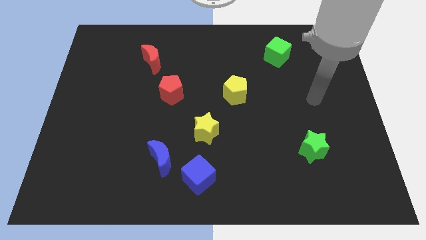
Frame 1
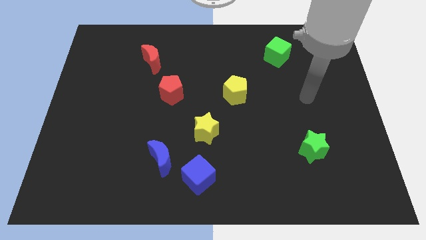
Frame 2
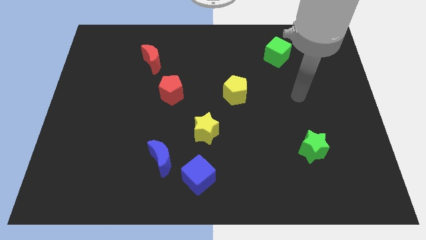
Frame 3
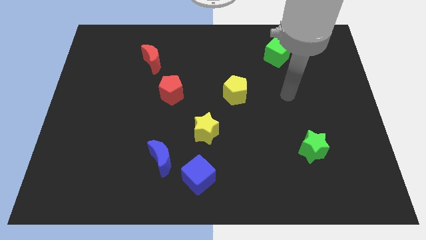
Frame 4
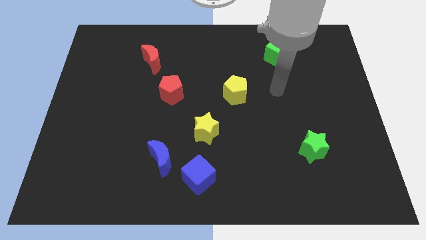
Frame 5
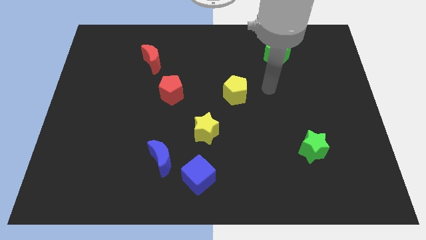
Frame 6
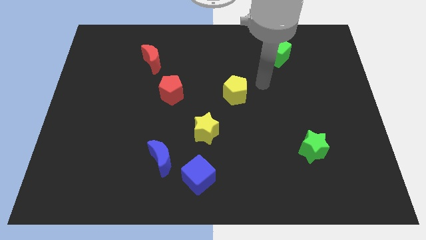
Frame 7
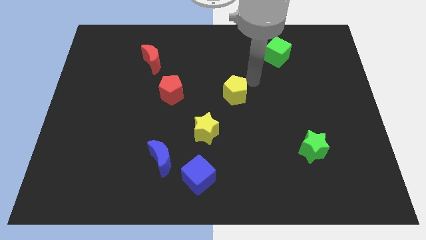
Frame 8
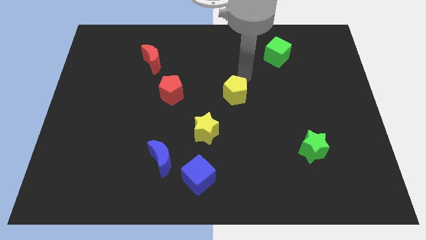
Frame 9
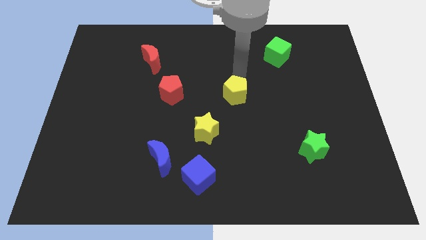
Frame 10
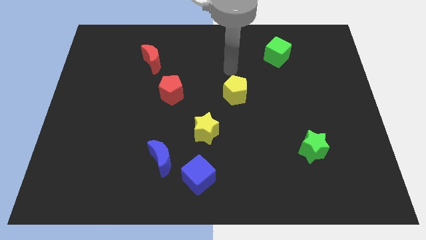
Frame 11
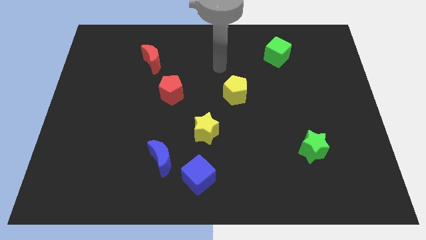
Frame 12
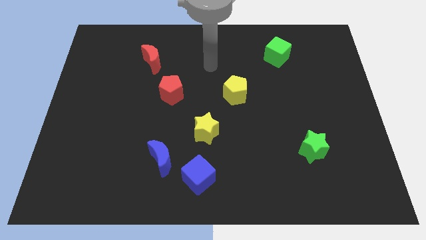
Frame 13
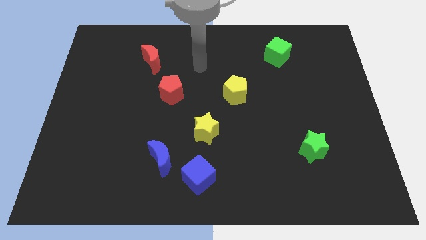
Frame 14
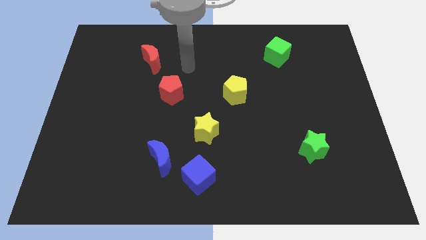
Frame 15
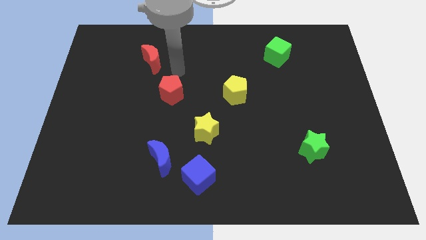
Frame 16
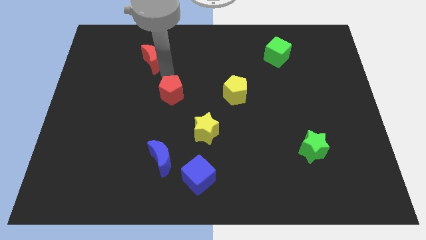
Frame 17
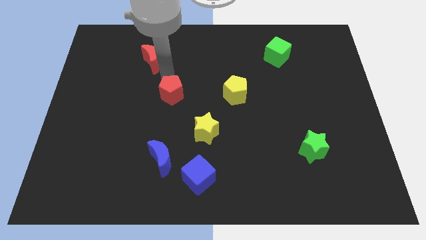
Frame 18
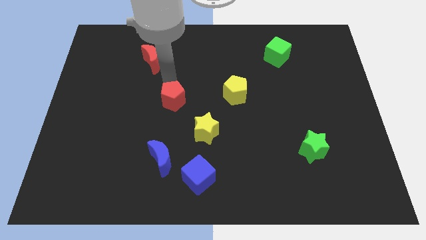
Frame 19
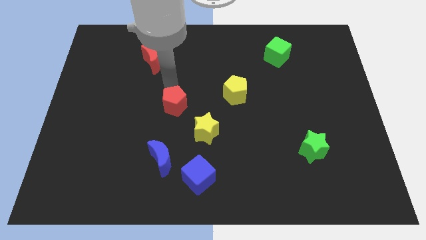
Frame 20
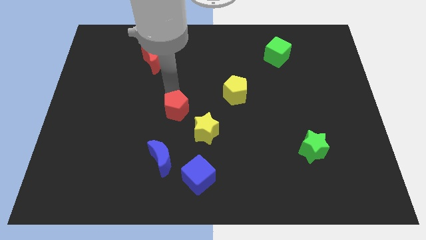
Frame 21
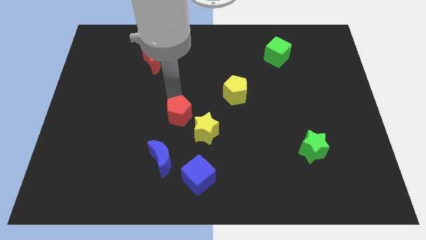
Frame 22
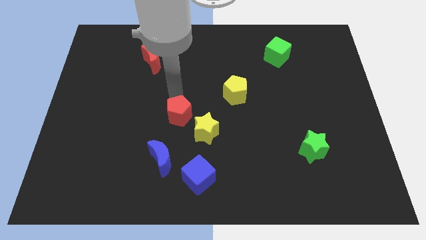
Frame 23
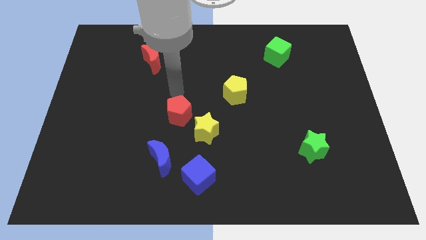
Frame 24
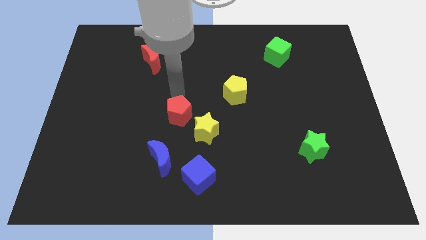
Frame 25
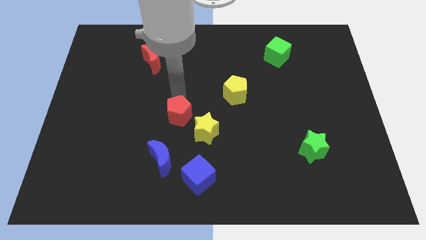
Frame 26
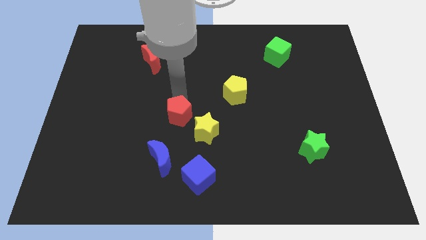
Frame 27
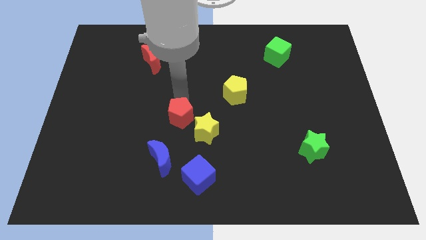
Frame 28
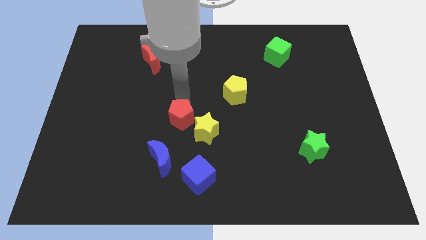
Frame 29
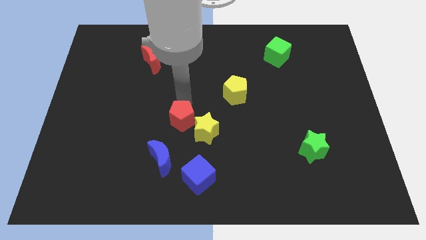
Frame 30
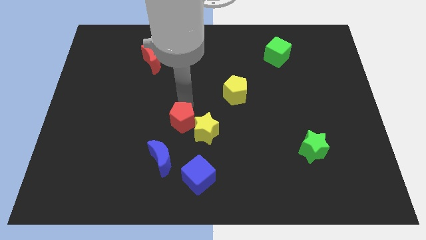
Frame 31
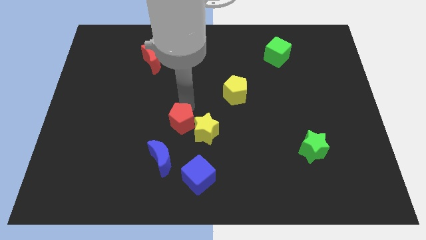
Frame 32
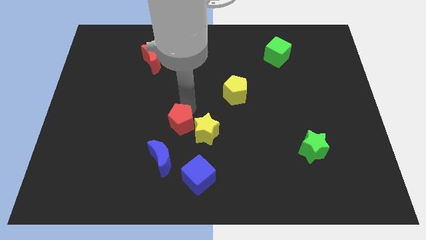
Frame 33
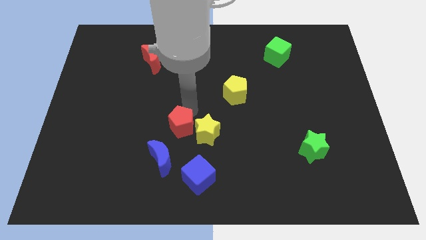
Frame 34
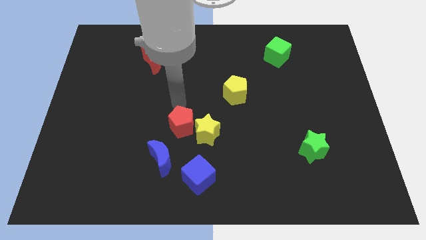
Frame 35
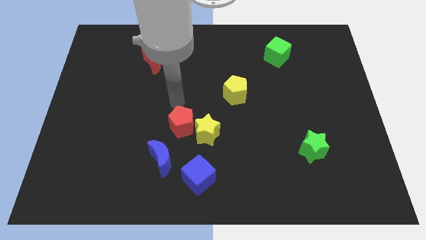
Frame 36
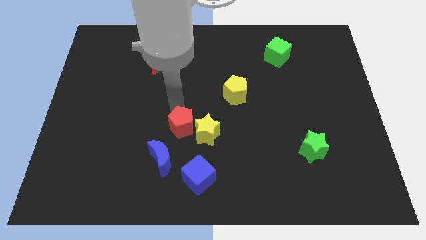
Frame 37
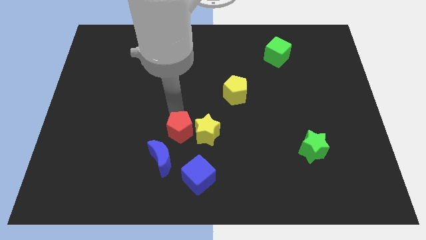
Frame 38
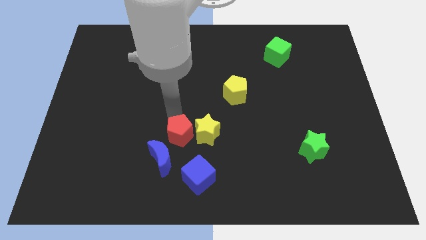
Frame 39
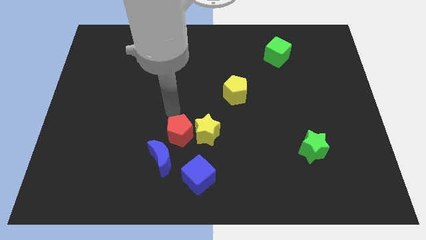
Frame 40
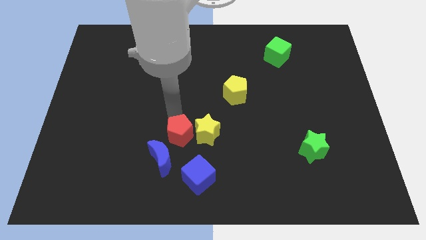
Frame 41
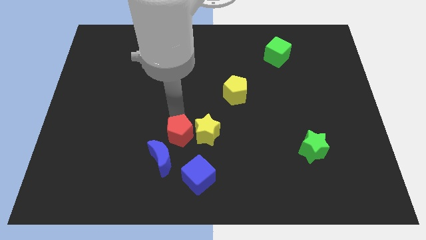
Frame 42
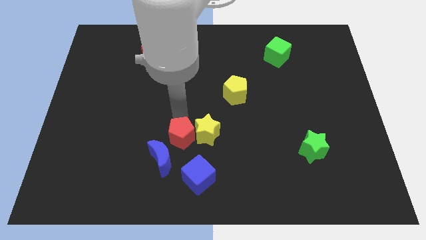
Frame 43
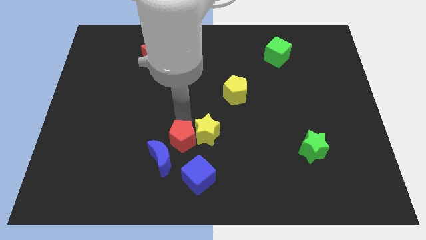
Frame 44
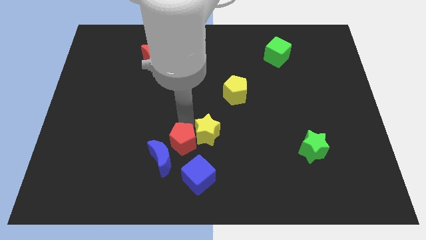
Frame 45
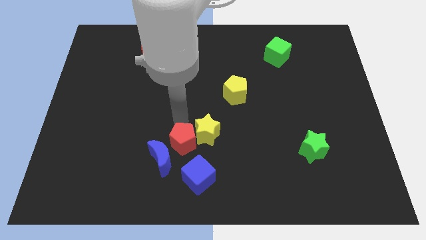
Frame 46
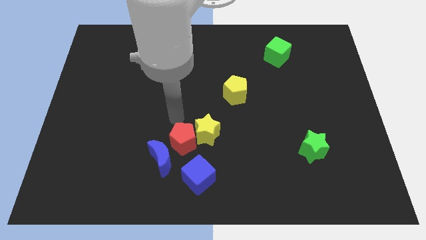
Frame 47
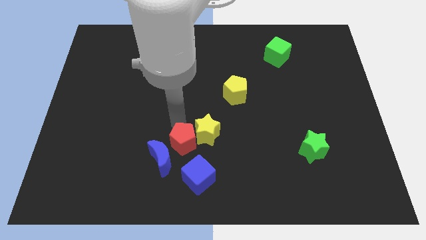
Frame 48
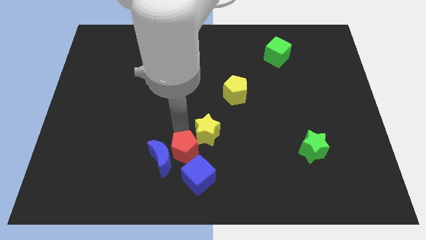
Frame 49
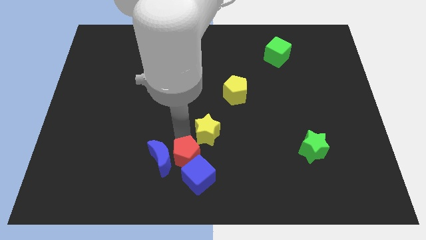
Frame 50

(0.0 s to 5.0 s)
push the red pentagon towards the blue cube

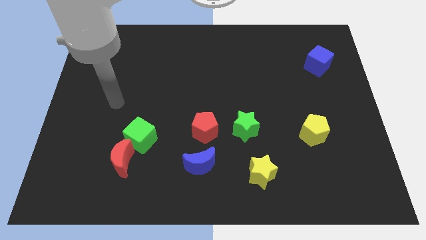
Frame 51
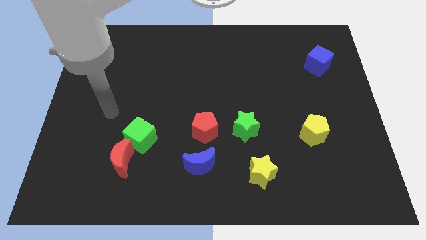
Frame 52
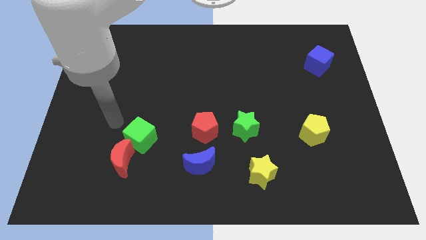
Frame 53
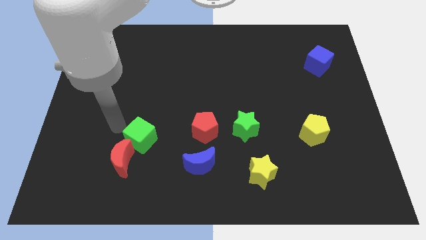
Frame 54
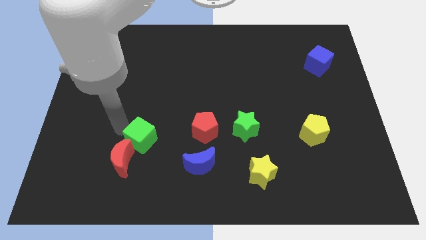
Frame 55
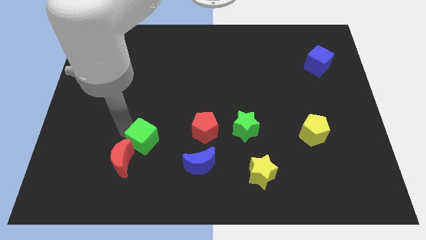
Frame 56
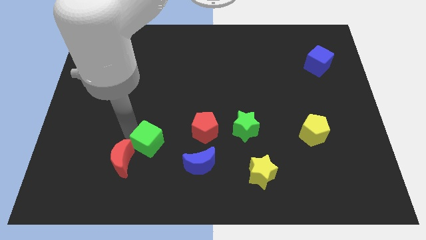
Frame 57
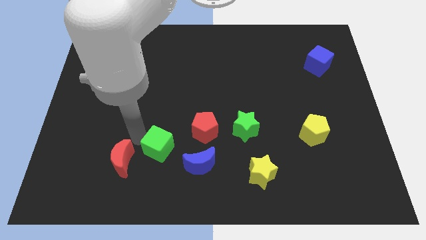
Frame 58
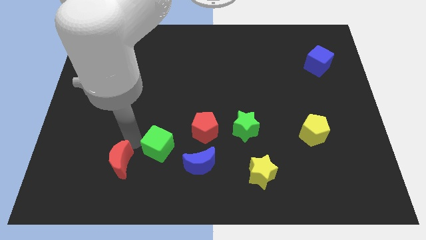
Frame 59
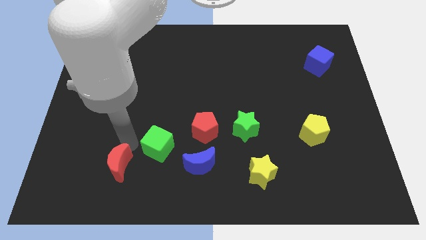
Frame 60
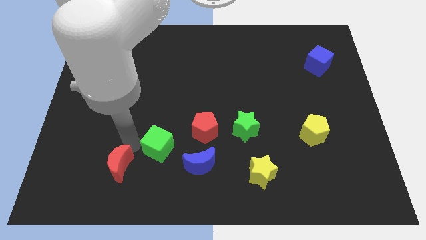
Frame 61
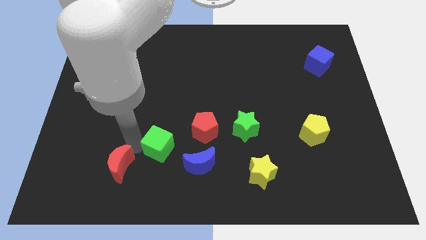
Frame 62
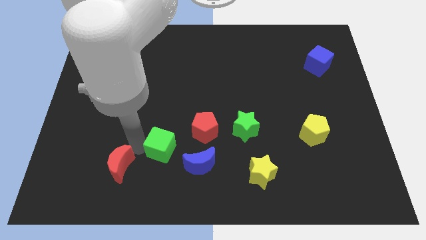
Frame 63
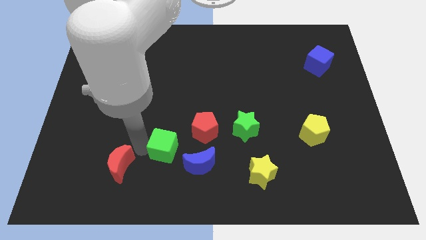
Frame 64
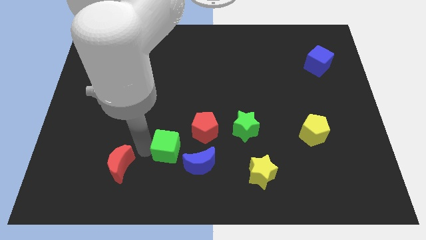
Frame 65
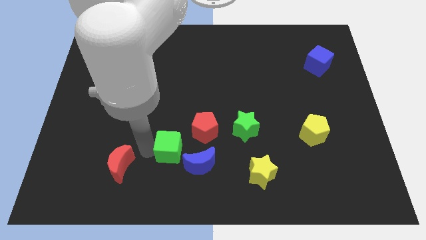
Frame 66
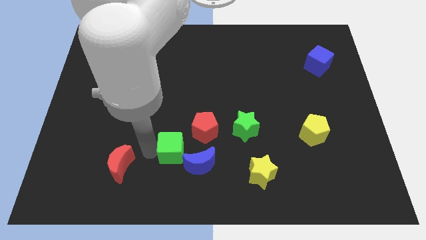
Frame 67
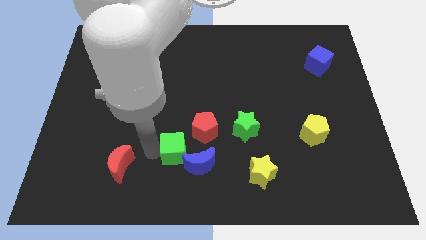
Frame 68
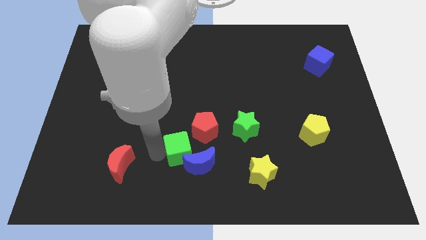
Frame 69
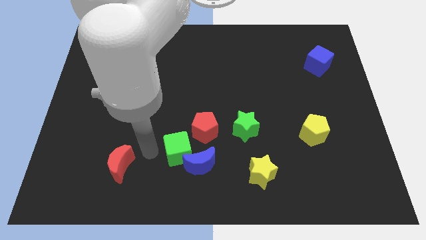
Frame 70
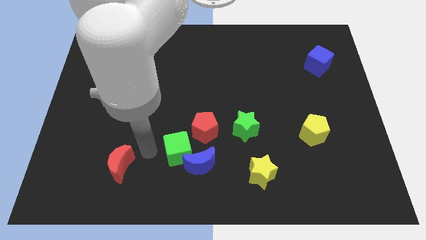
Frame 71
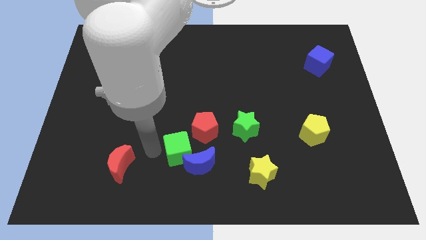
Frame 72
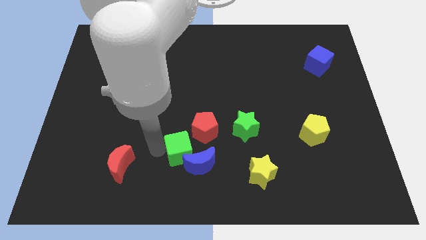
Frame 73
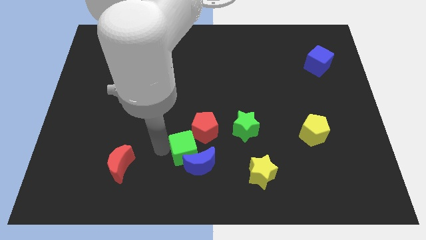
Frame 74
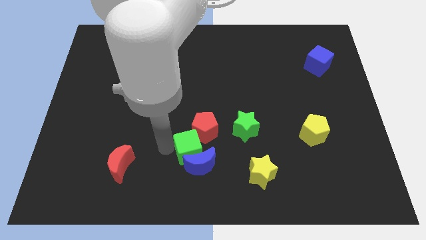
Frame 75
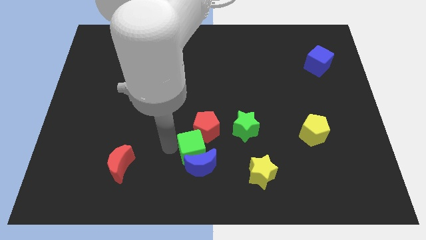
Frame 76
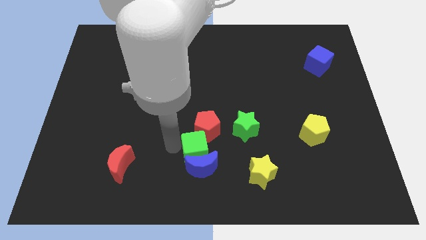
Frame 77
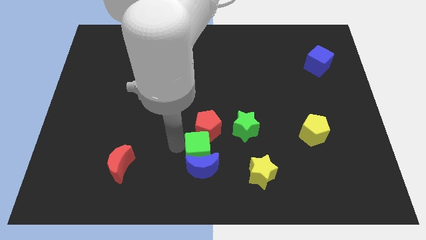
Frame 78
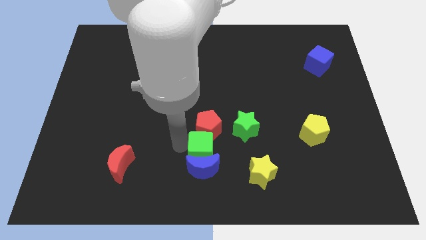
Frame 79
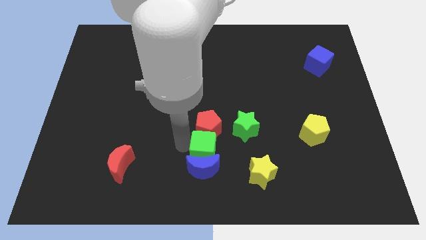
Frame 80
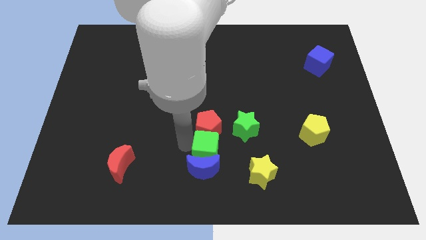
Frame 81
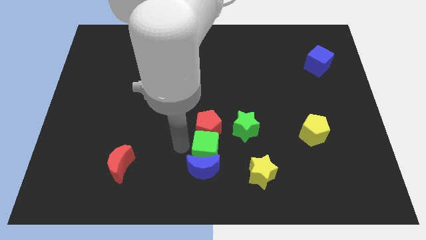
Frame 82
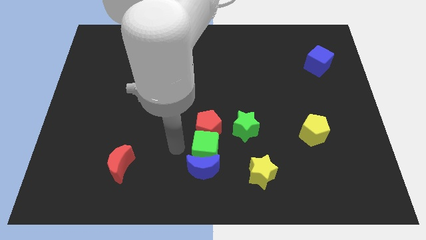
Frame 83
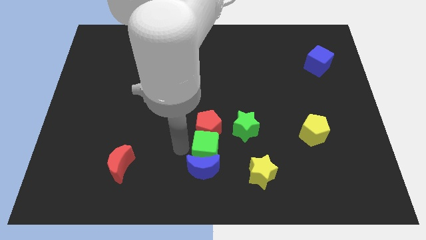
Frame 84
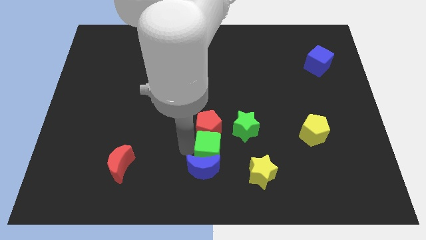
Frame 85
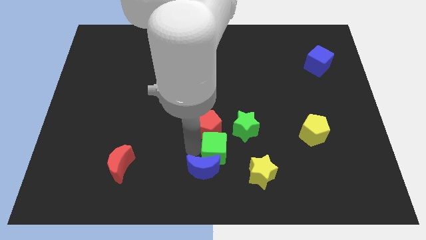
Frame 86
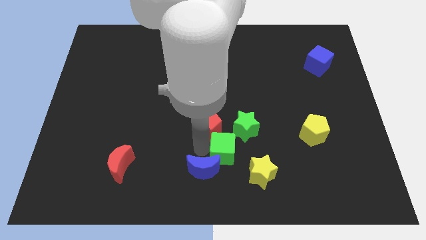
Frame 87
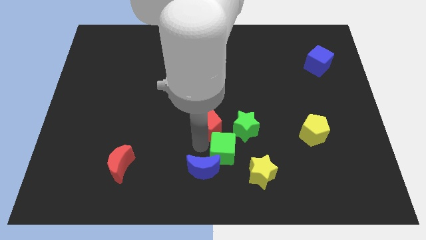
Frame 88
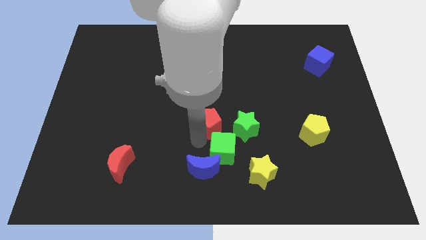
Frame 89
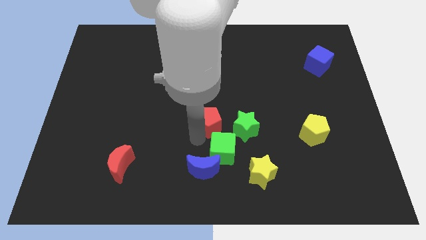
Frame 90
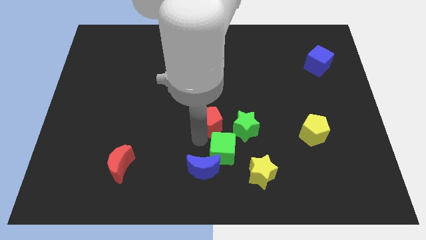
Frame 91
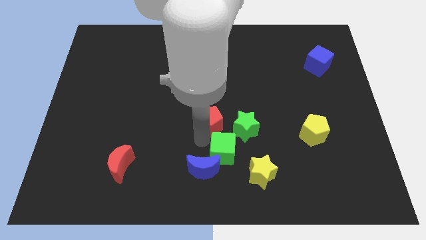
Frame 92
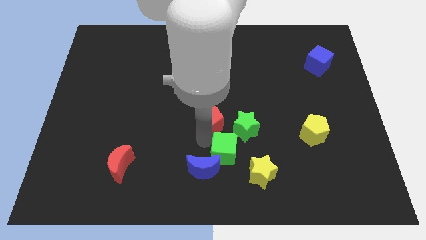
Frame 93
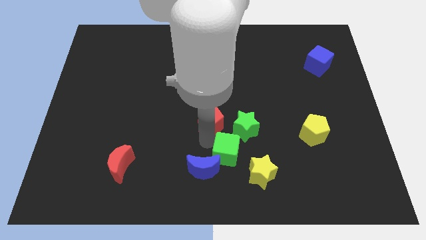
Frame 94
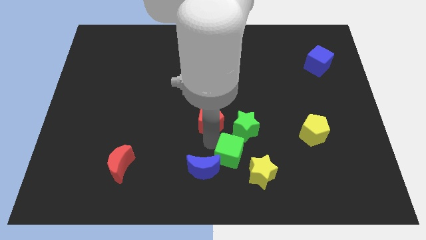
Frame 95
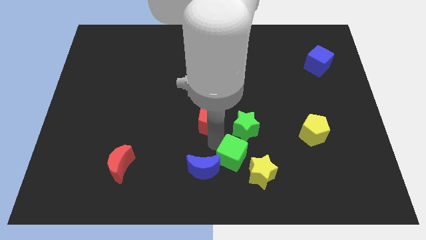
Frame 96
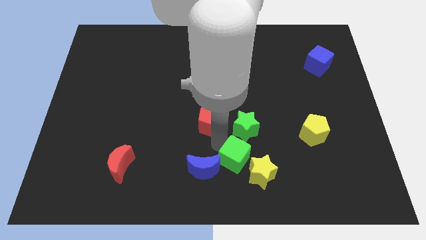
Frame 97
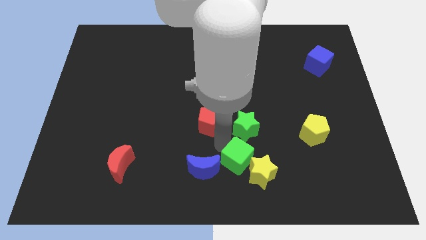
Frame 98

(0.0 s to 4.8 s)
move the green cube next to the yellow star
